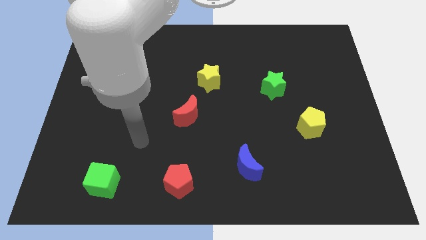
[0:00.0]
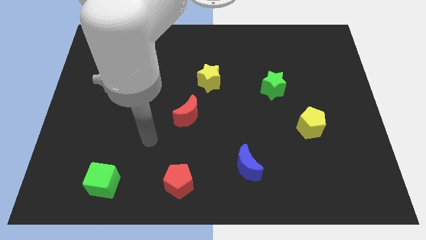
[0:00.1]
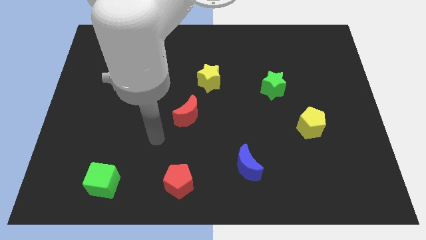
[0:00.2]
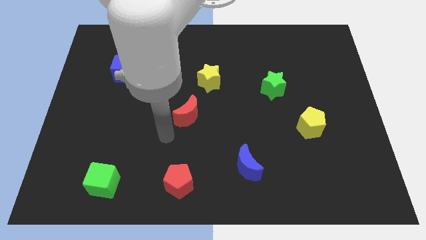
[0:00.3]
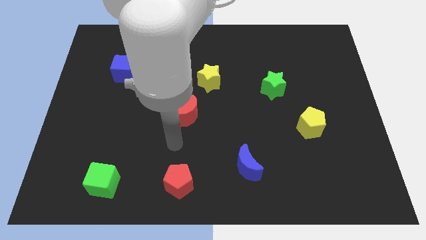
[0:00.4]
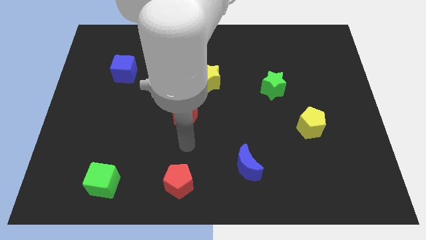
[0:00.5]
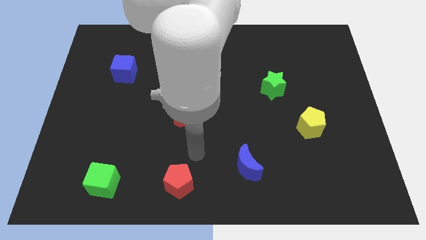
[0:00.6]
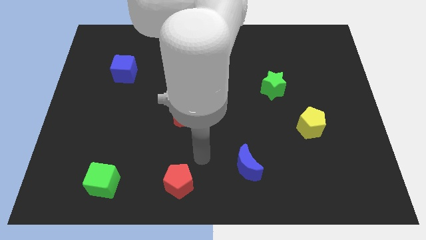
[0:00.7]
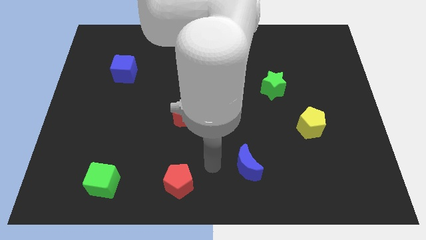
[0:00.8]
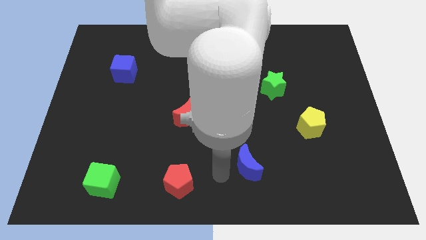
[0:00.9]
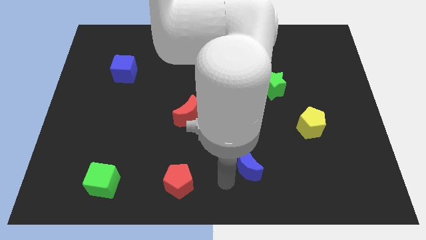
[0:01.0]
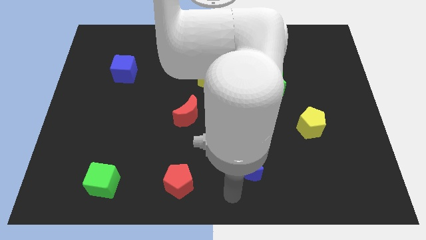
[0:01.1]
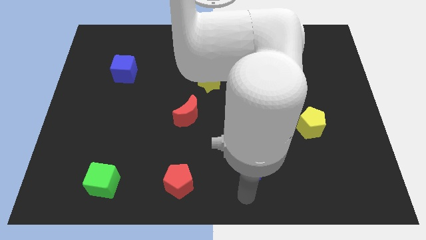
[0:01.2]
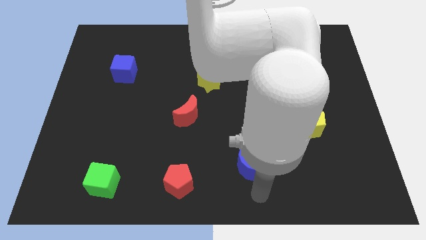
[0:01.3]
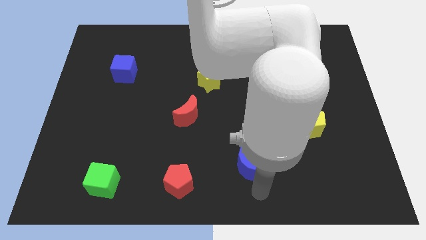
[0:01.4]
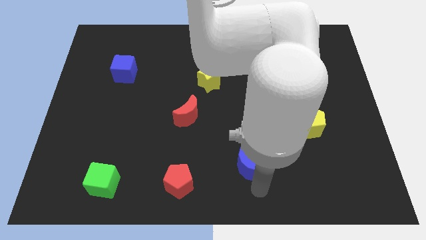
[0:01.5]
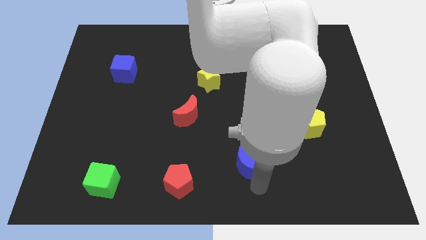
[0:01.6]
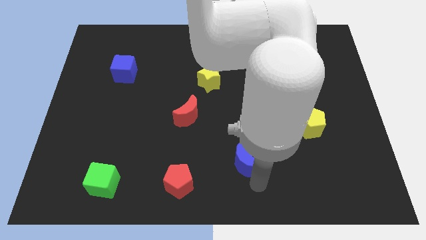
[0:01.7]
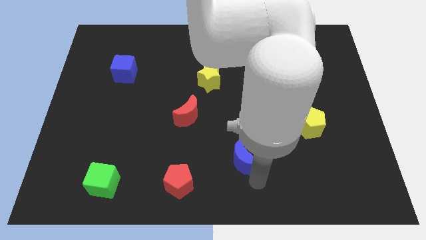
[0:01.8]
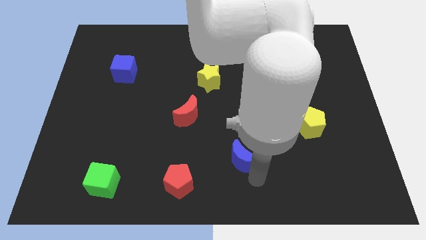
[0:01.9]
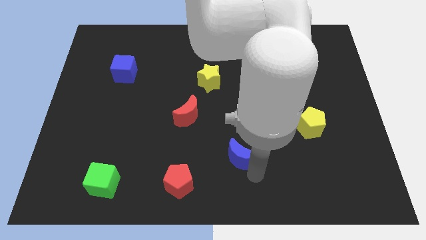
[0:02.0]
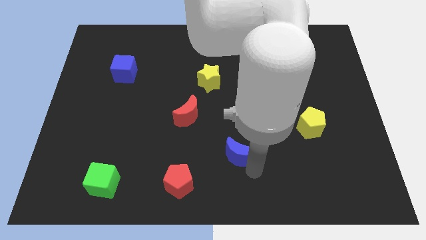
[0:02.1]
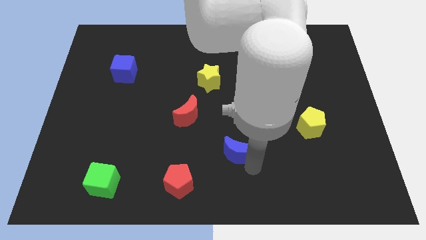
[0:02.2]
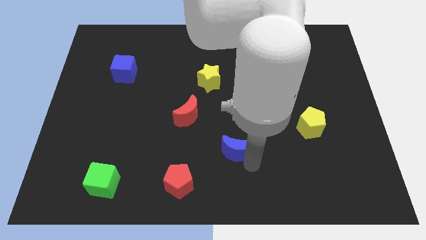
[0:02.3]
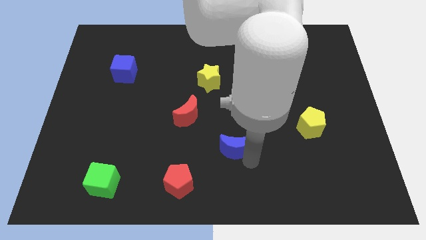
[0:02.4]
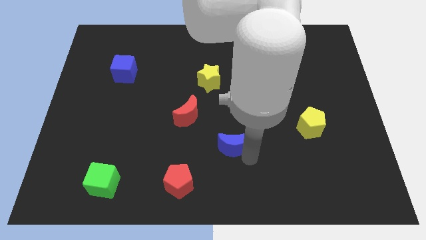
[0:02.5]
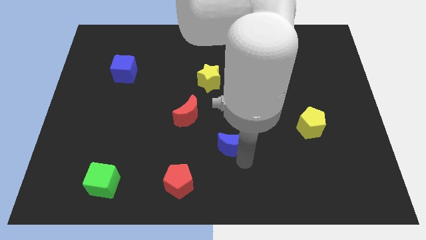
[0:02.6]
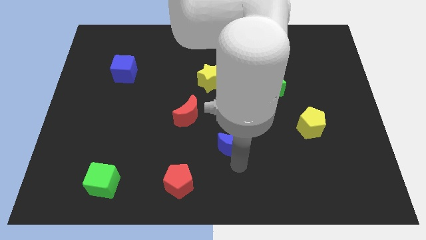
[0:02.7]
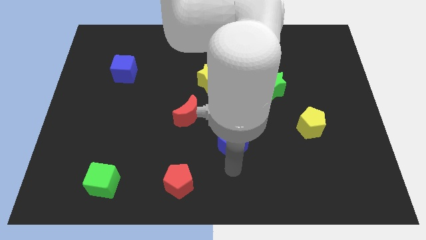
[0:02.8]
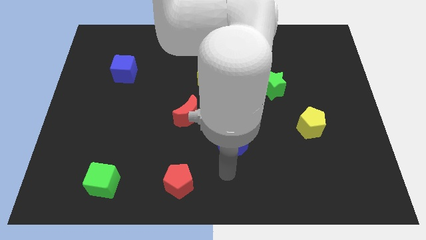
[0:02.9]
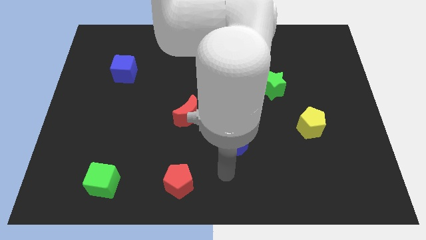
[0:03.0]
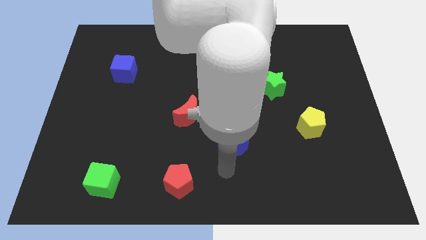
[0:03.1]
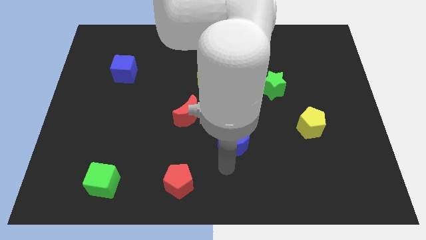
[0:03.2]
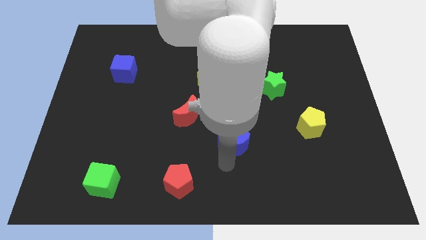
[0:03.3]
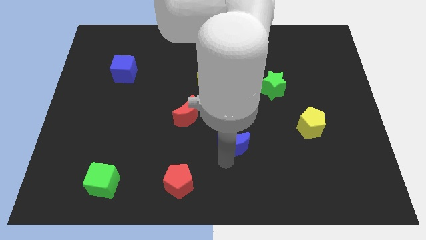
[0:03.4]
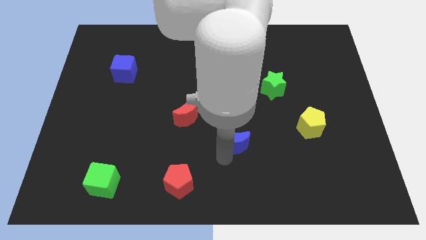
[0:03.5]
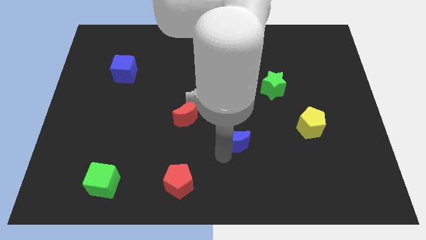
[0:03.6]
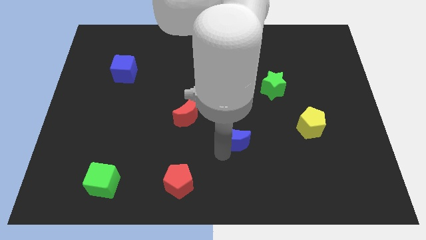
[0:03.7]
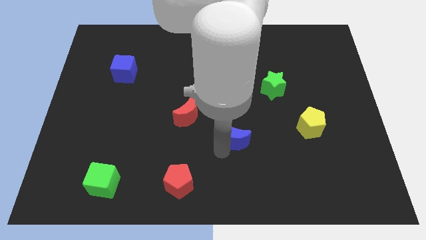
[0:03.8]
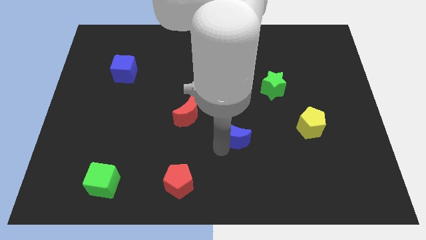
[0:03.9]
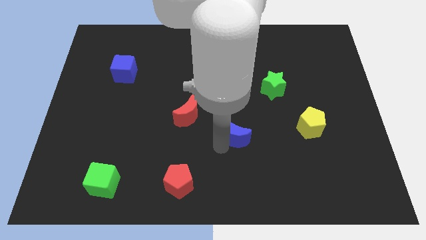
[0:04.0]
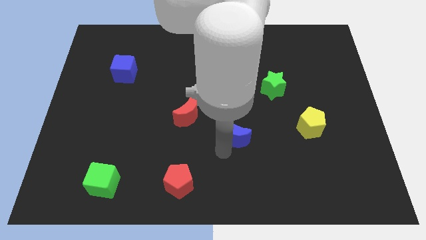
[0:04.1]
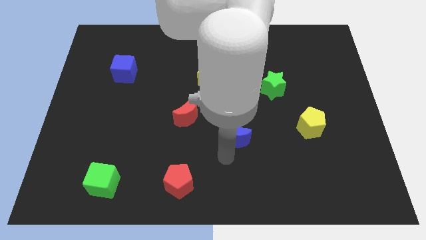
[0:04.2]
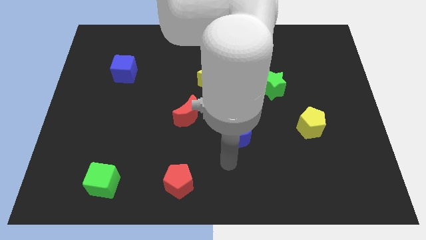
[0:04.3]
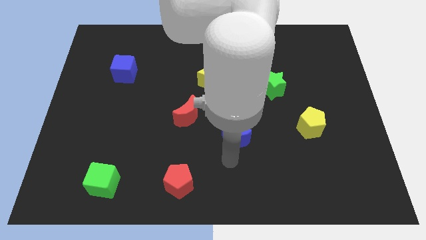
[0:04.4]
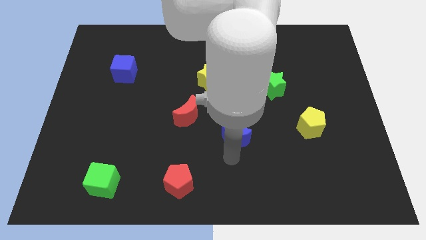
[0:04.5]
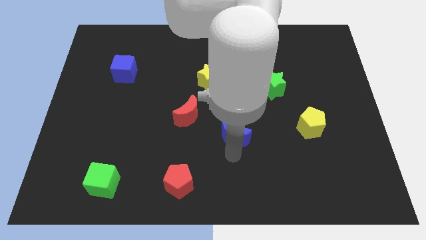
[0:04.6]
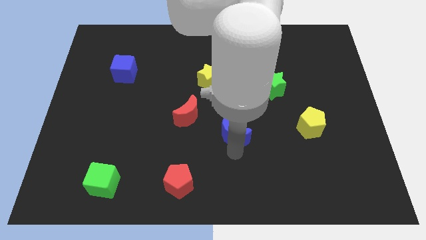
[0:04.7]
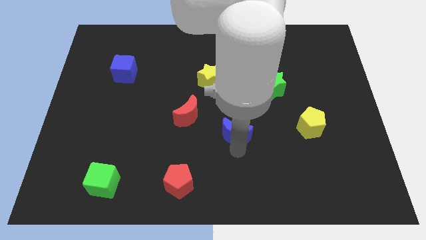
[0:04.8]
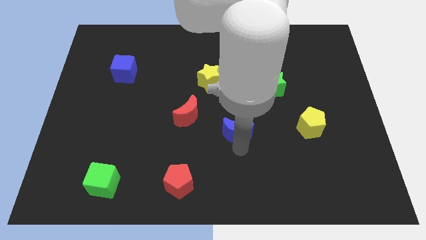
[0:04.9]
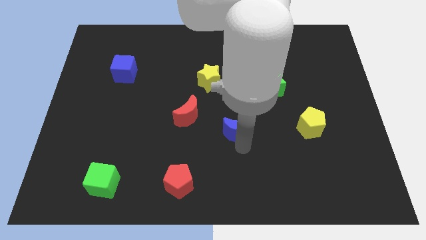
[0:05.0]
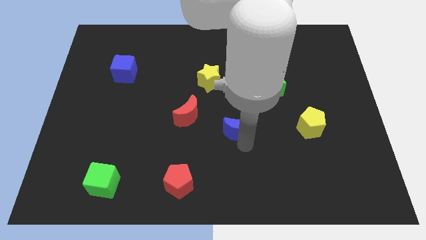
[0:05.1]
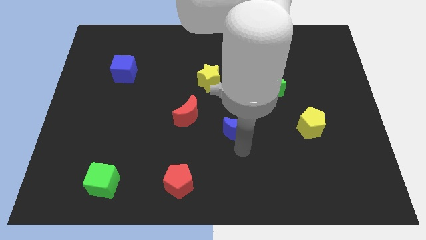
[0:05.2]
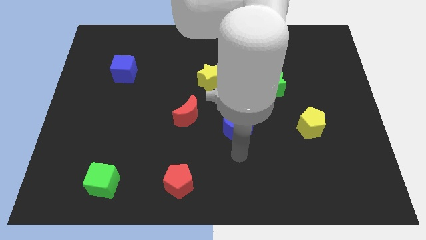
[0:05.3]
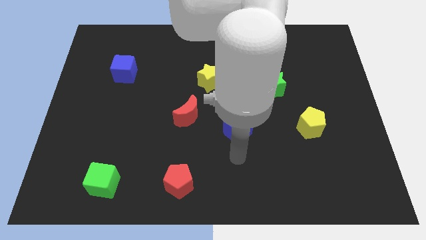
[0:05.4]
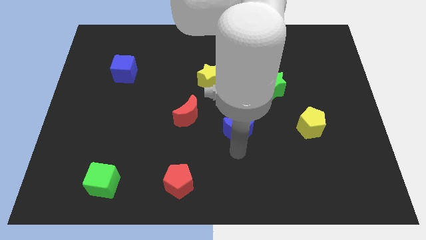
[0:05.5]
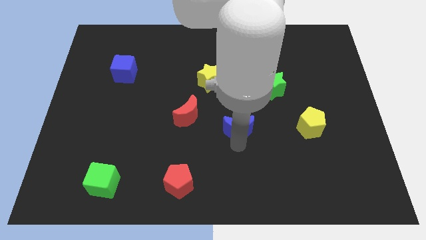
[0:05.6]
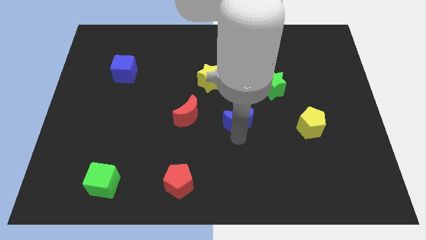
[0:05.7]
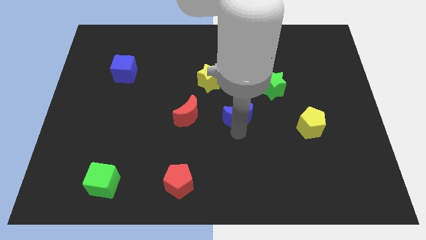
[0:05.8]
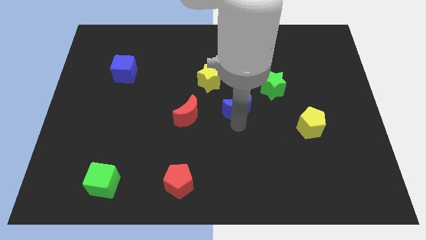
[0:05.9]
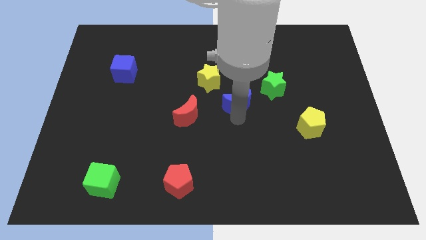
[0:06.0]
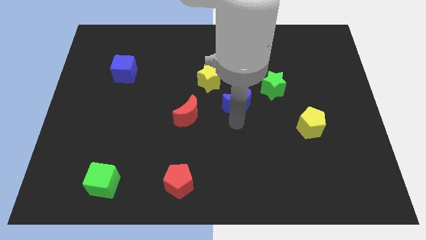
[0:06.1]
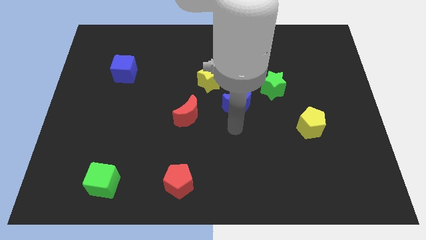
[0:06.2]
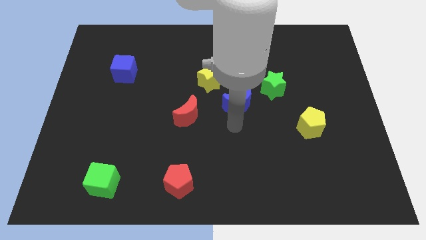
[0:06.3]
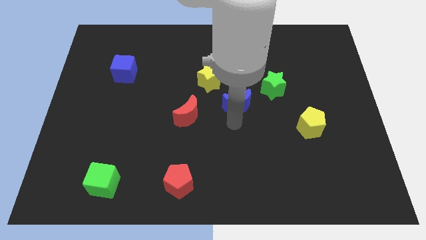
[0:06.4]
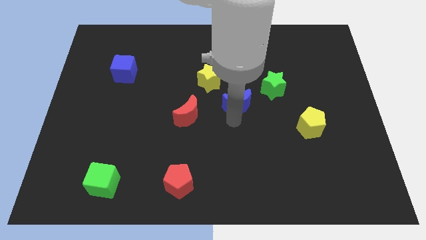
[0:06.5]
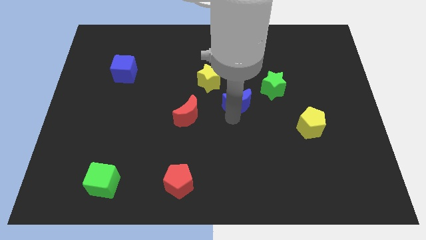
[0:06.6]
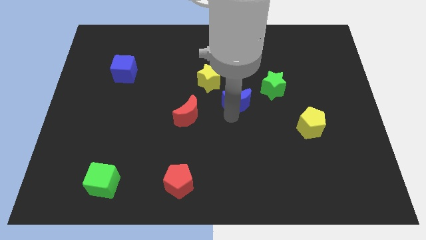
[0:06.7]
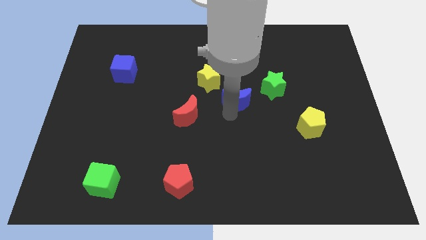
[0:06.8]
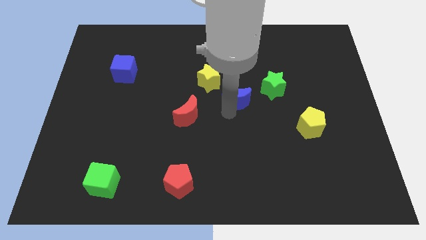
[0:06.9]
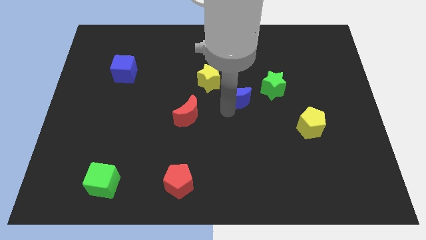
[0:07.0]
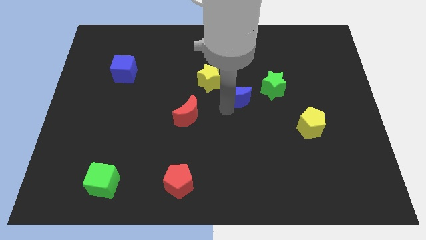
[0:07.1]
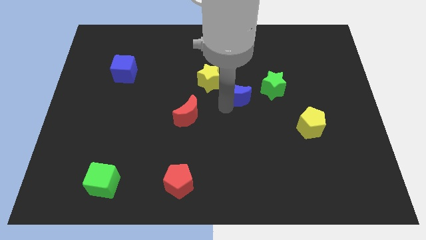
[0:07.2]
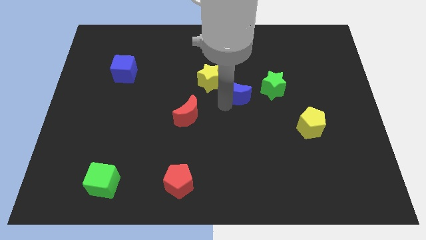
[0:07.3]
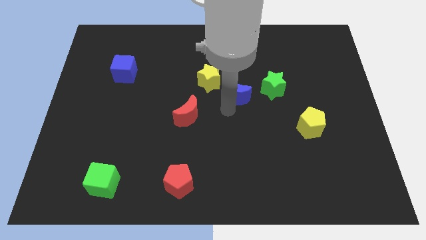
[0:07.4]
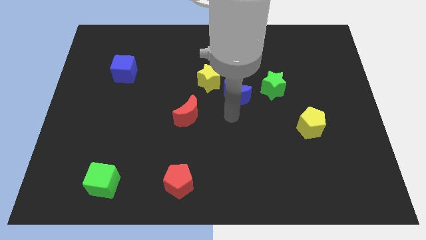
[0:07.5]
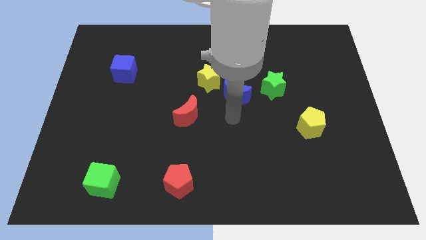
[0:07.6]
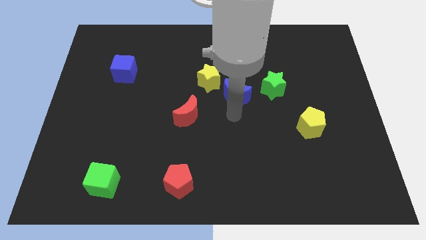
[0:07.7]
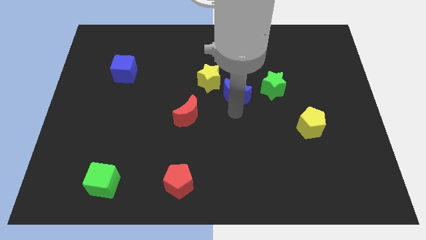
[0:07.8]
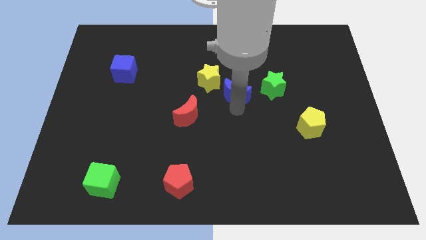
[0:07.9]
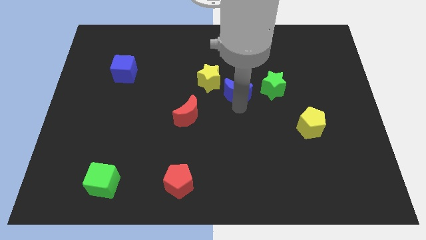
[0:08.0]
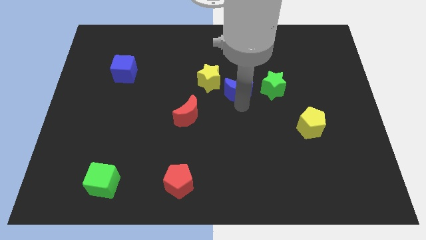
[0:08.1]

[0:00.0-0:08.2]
push the blue moon upwards
